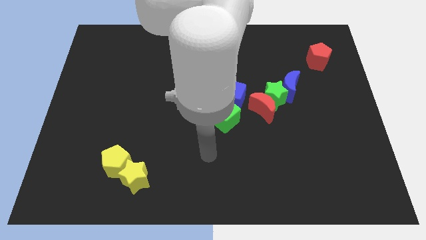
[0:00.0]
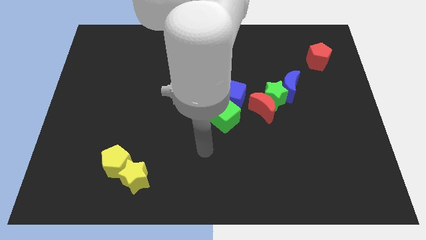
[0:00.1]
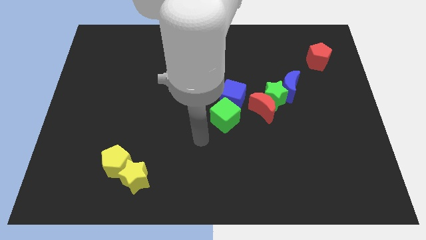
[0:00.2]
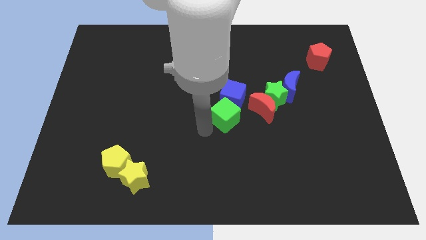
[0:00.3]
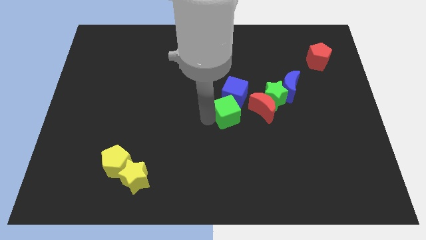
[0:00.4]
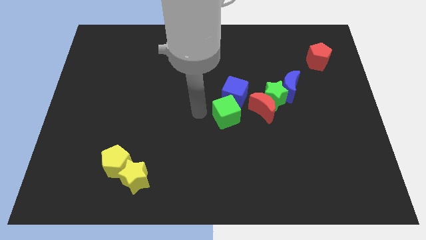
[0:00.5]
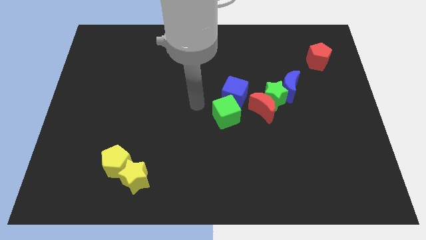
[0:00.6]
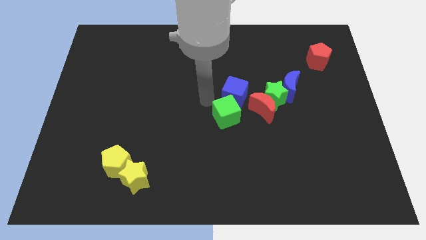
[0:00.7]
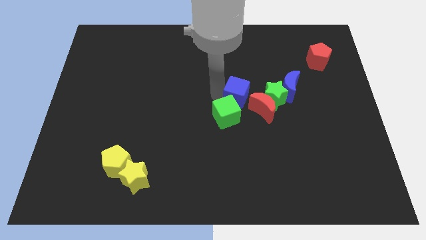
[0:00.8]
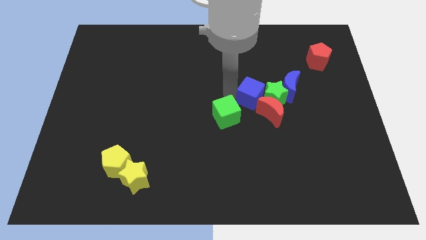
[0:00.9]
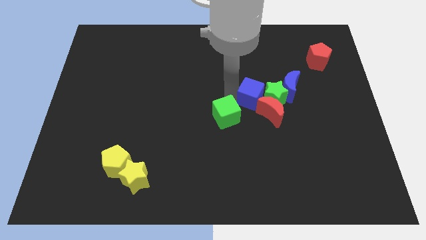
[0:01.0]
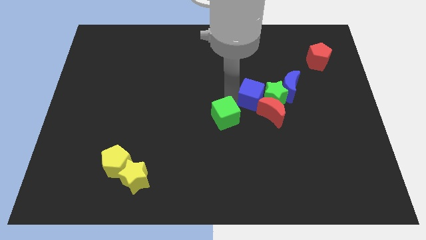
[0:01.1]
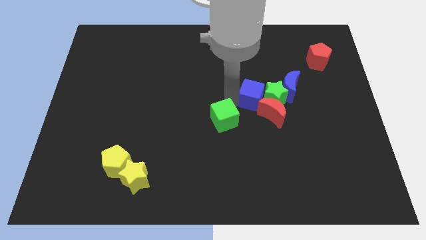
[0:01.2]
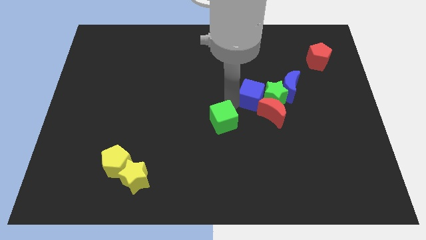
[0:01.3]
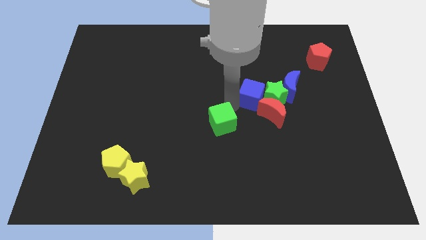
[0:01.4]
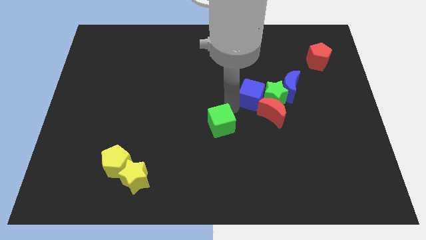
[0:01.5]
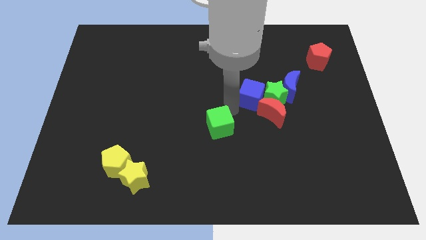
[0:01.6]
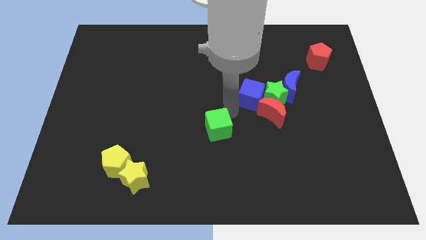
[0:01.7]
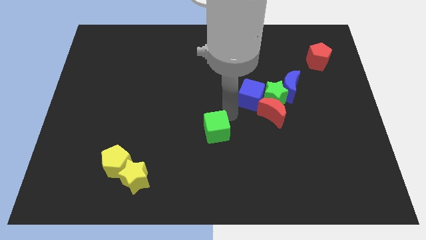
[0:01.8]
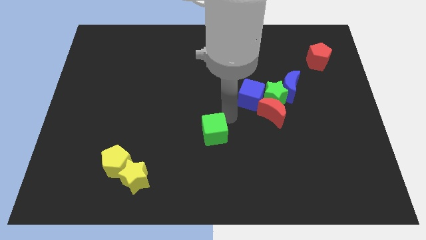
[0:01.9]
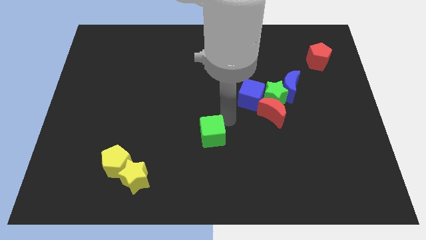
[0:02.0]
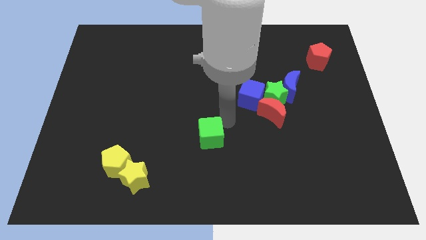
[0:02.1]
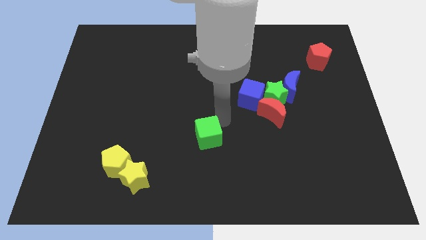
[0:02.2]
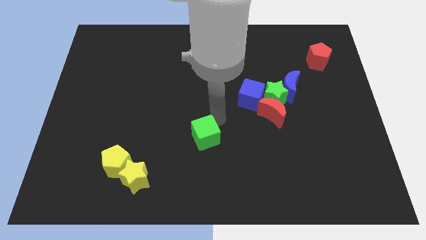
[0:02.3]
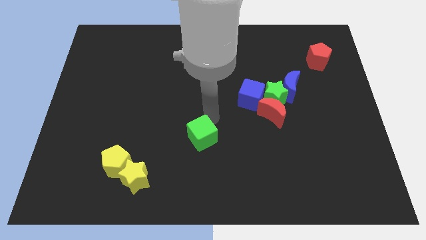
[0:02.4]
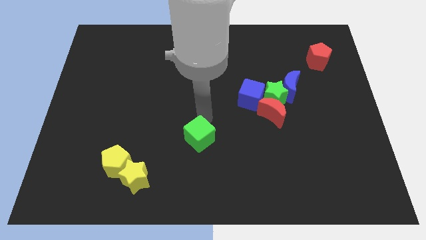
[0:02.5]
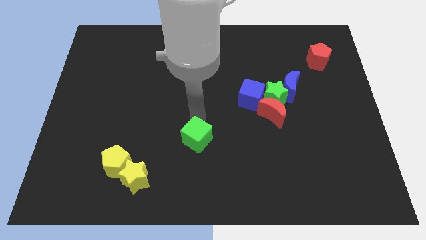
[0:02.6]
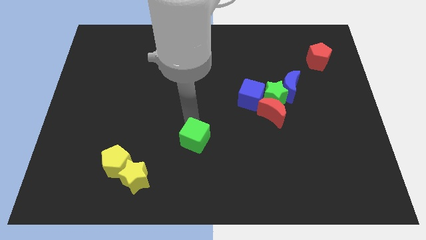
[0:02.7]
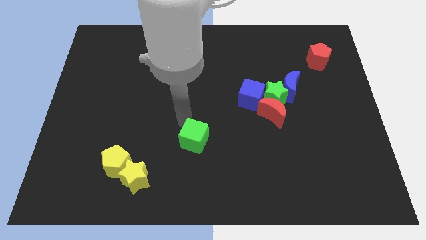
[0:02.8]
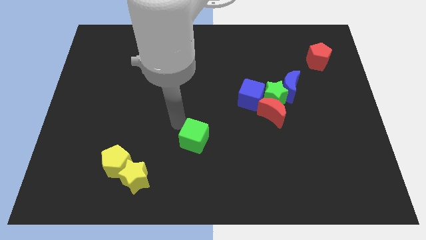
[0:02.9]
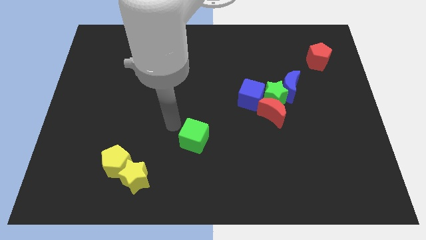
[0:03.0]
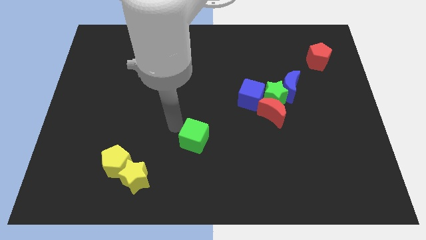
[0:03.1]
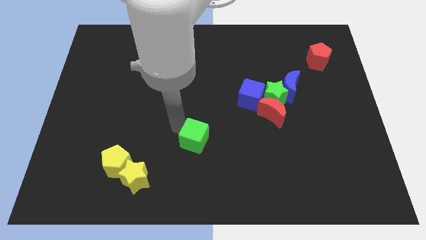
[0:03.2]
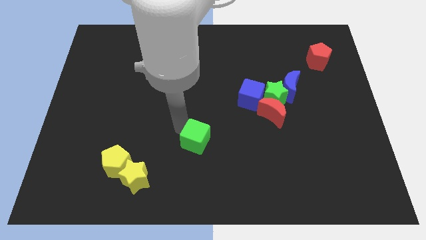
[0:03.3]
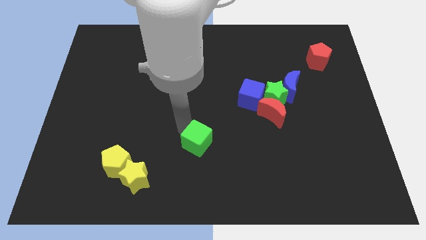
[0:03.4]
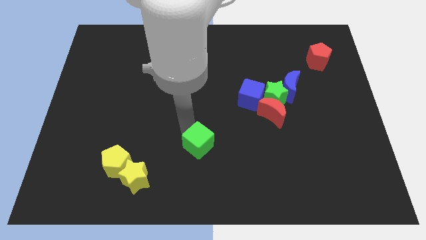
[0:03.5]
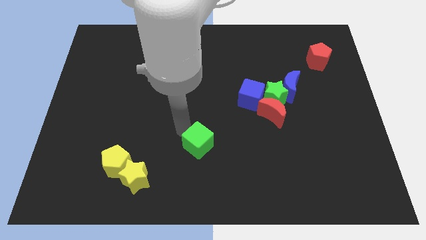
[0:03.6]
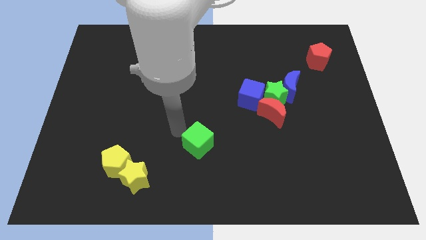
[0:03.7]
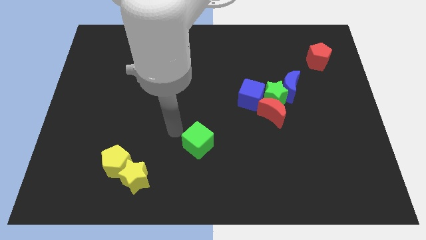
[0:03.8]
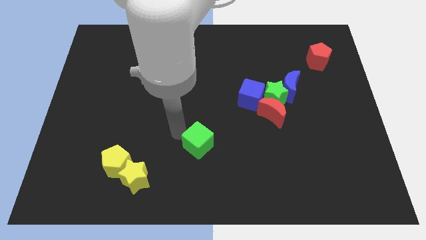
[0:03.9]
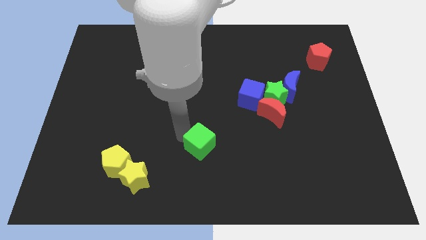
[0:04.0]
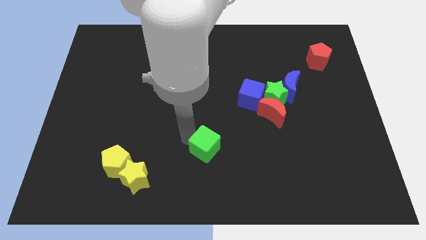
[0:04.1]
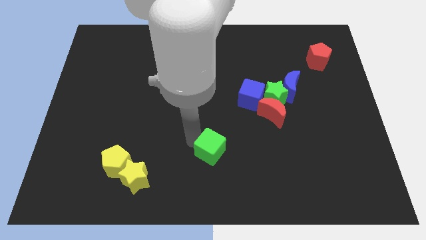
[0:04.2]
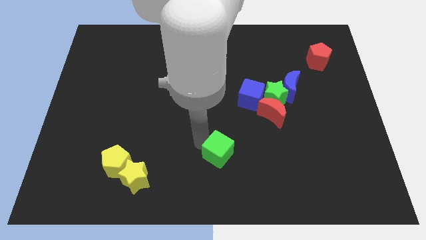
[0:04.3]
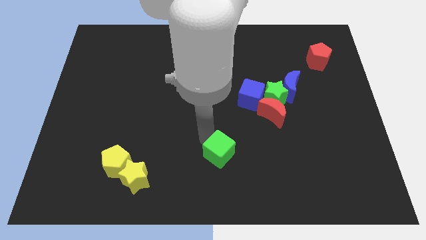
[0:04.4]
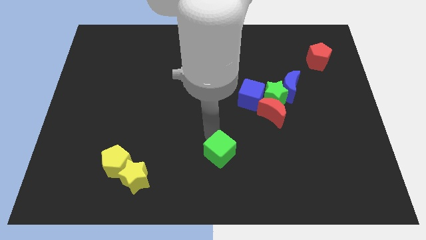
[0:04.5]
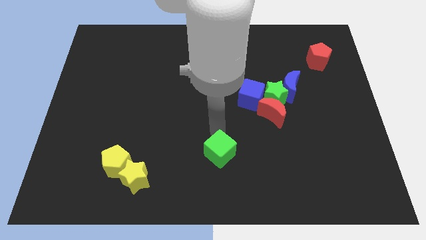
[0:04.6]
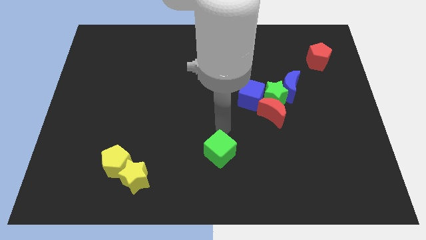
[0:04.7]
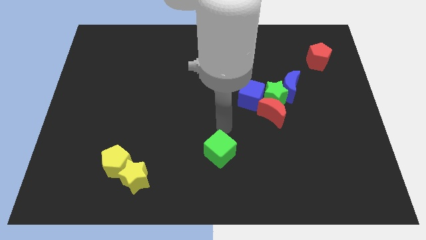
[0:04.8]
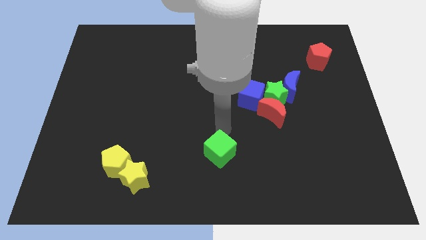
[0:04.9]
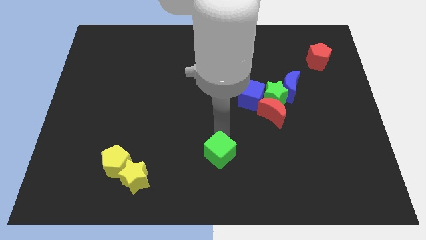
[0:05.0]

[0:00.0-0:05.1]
push the green cube to the bottom

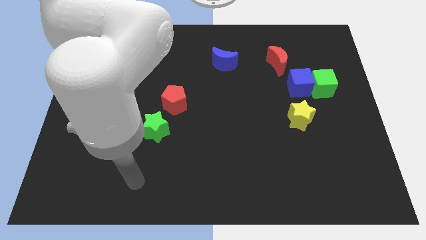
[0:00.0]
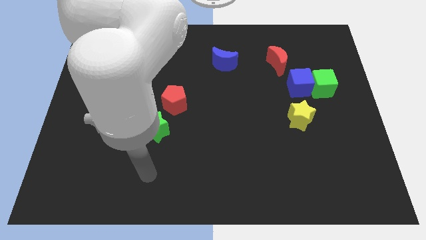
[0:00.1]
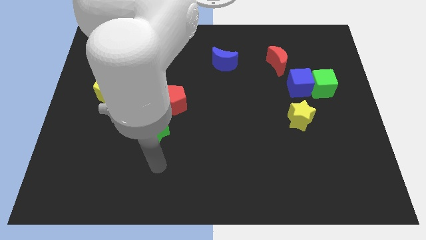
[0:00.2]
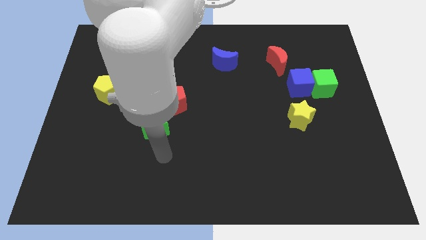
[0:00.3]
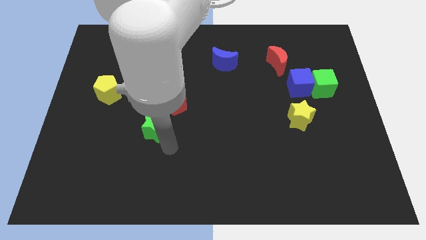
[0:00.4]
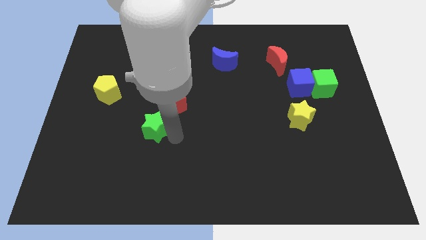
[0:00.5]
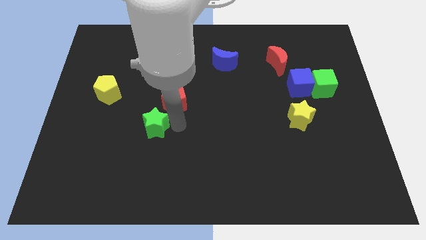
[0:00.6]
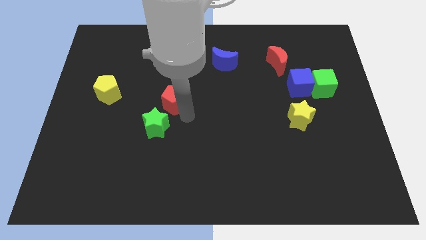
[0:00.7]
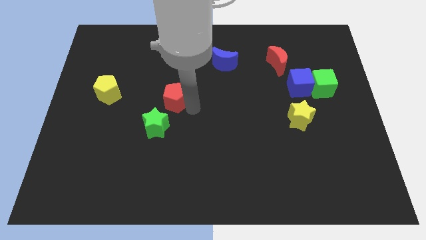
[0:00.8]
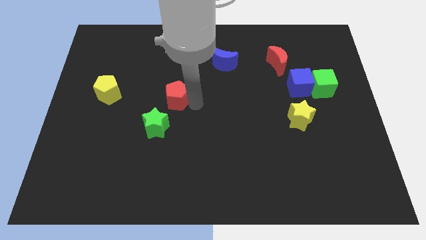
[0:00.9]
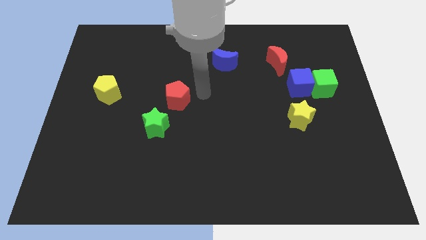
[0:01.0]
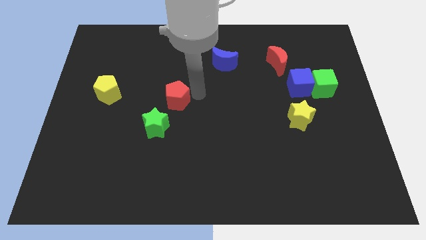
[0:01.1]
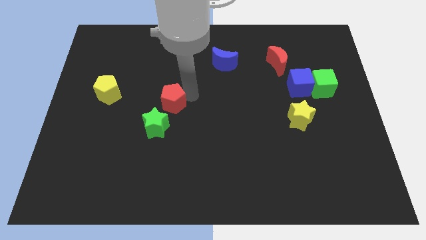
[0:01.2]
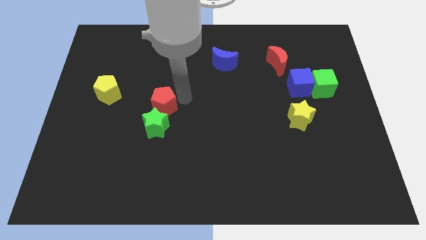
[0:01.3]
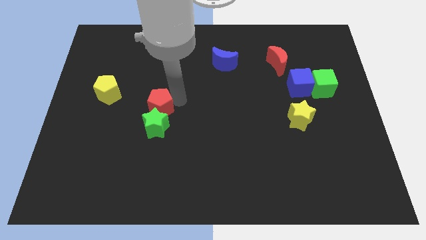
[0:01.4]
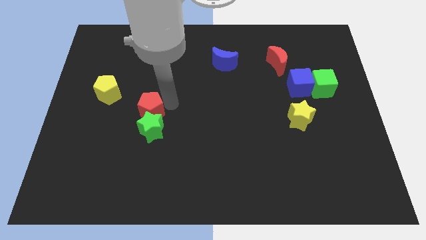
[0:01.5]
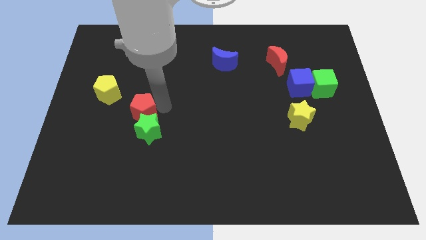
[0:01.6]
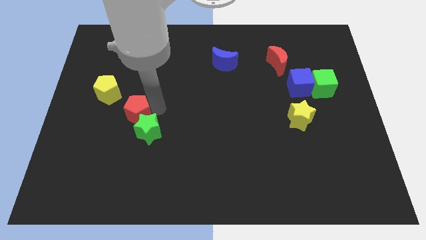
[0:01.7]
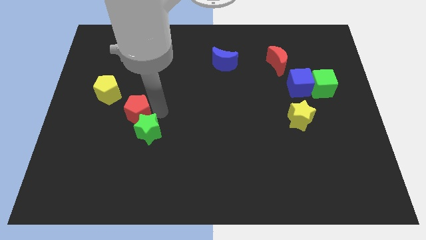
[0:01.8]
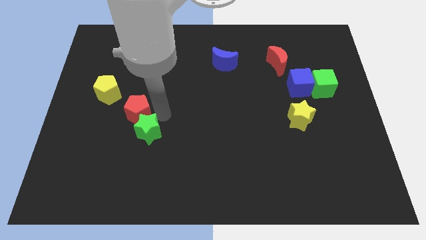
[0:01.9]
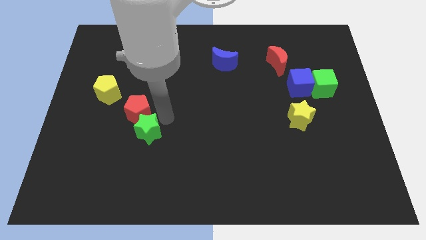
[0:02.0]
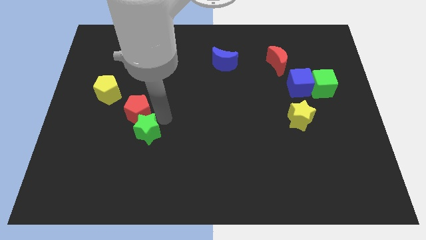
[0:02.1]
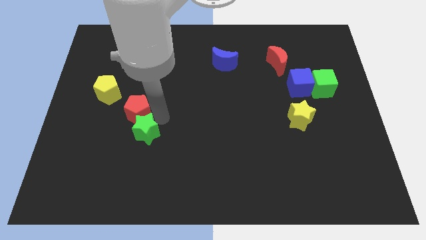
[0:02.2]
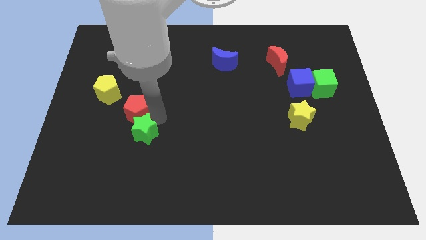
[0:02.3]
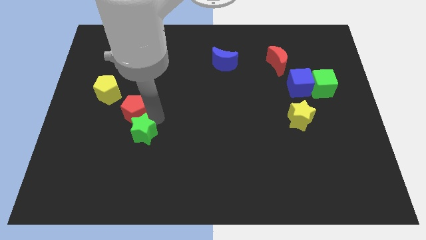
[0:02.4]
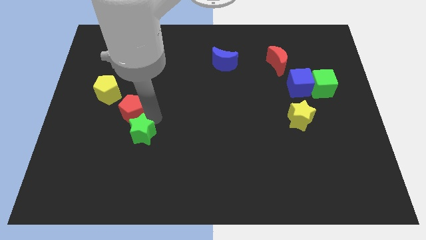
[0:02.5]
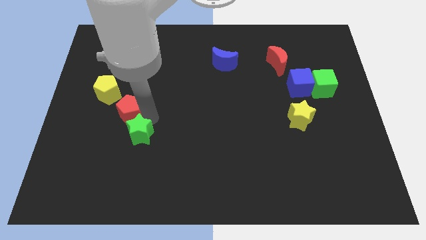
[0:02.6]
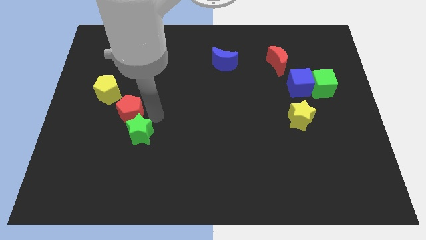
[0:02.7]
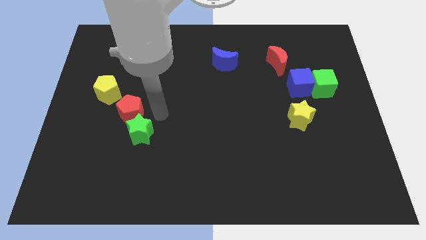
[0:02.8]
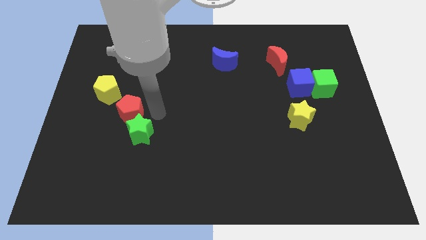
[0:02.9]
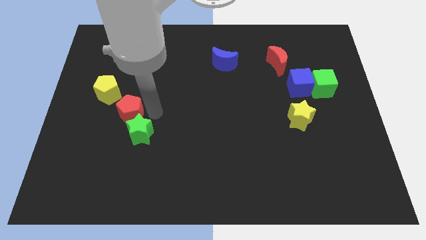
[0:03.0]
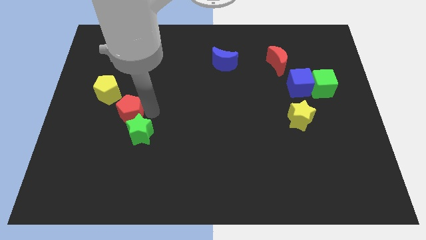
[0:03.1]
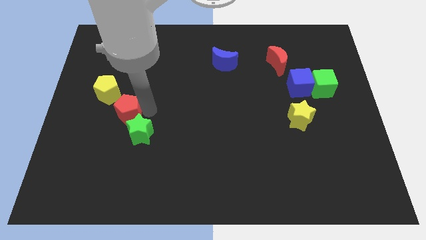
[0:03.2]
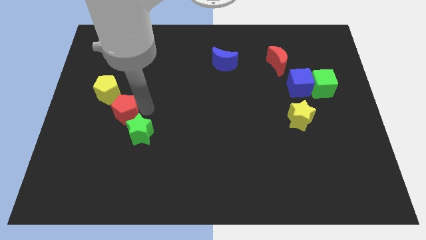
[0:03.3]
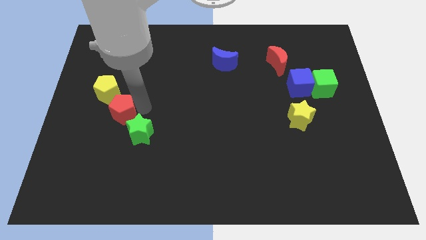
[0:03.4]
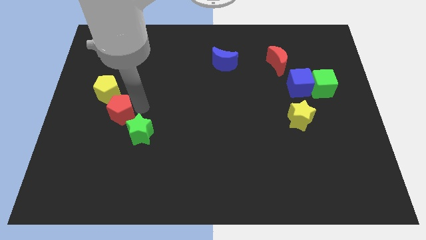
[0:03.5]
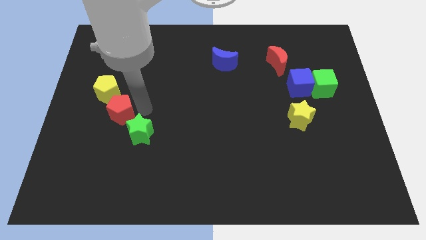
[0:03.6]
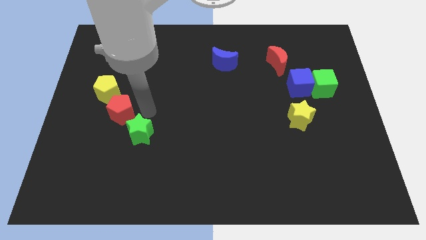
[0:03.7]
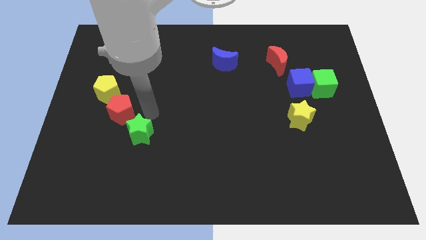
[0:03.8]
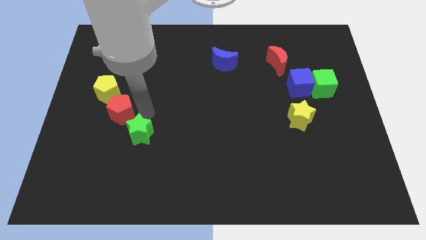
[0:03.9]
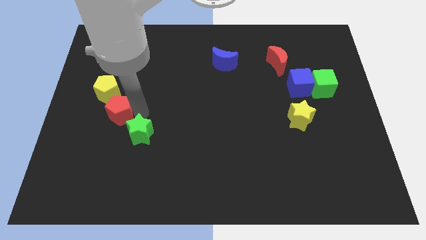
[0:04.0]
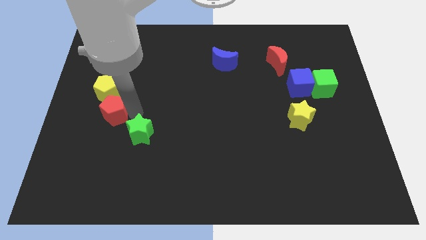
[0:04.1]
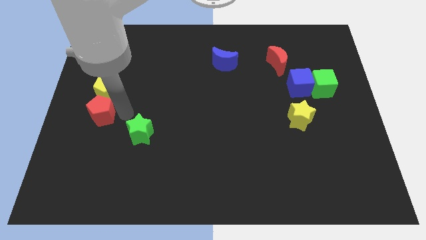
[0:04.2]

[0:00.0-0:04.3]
move the red pentagon to the left side of the board
